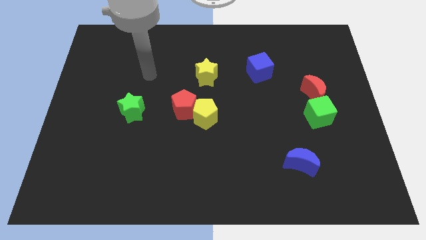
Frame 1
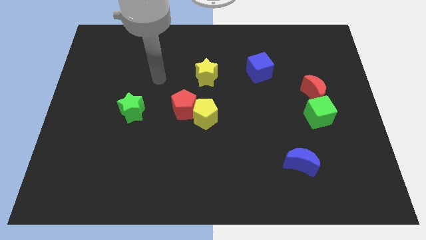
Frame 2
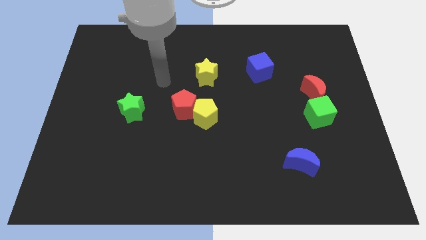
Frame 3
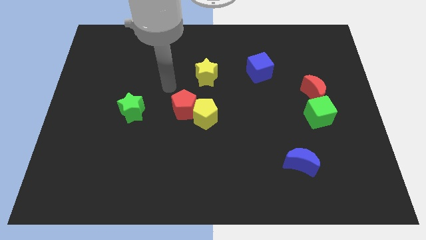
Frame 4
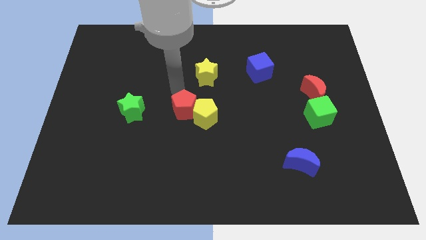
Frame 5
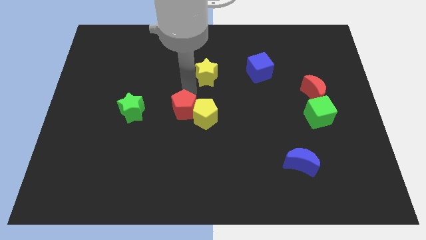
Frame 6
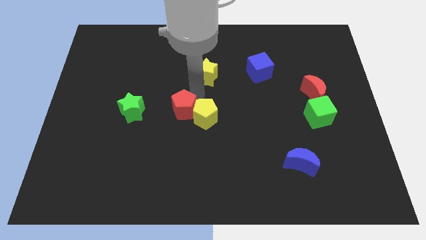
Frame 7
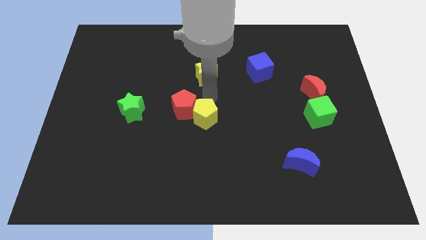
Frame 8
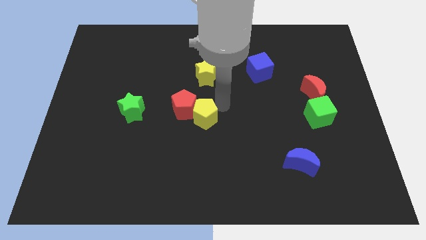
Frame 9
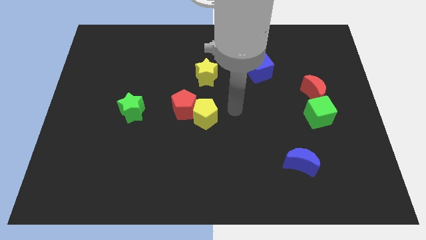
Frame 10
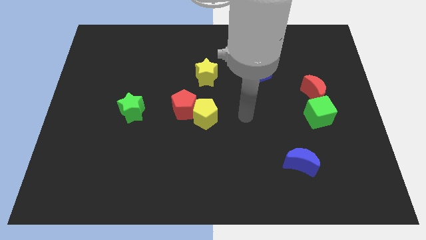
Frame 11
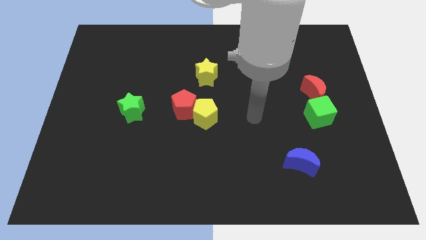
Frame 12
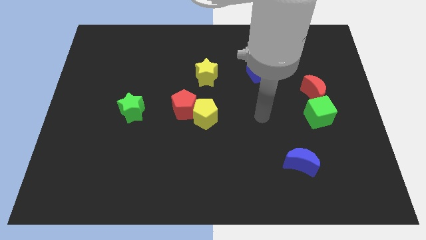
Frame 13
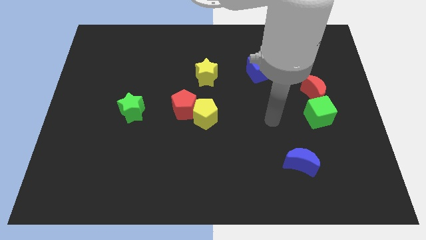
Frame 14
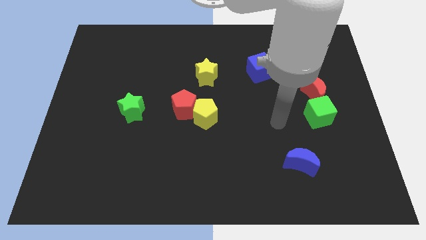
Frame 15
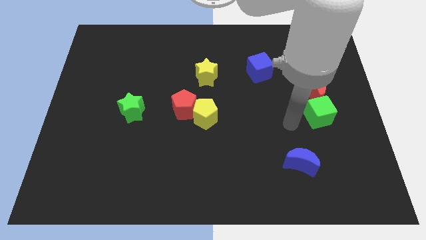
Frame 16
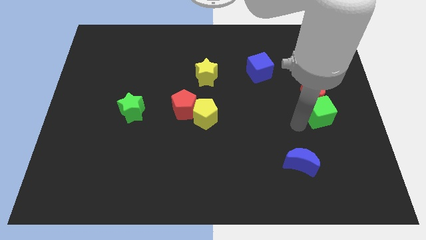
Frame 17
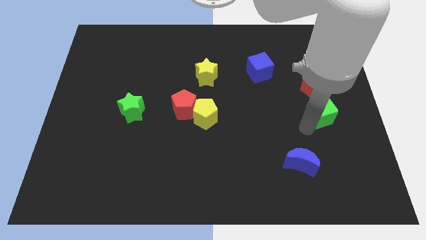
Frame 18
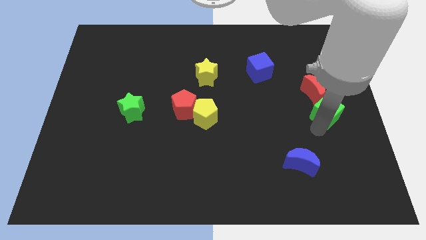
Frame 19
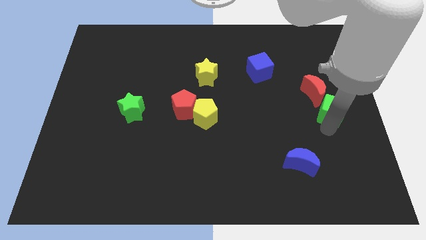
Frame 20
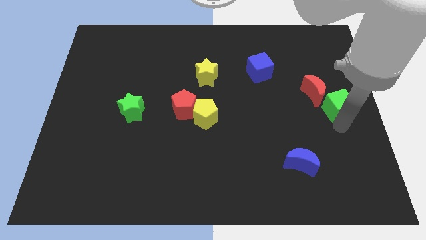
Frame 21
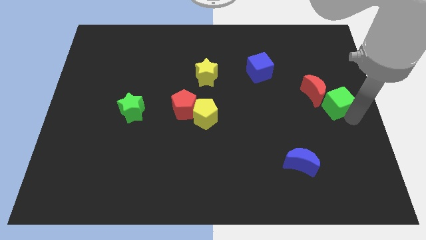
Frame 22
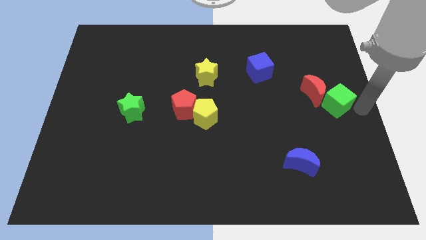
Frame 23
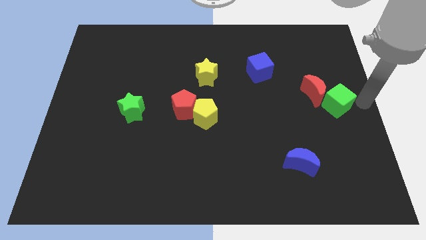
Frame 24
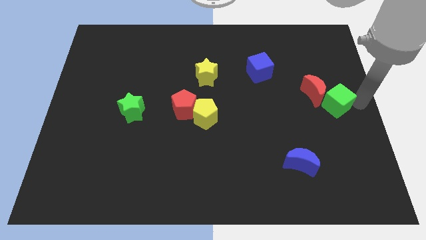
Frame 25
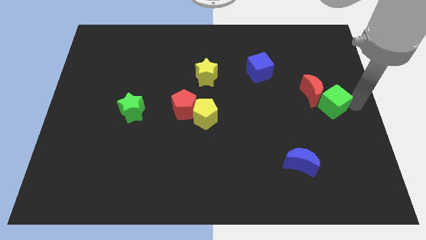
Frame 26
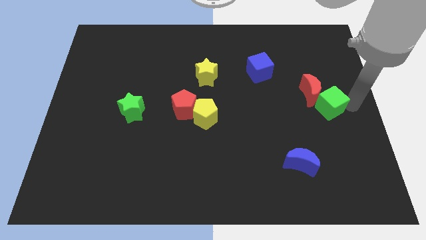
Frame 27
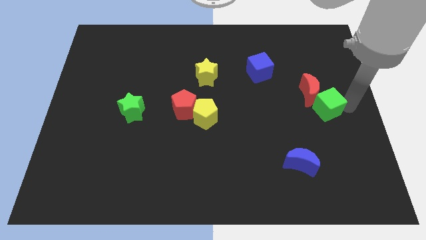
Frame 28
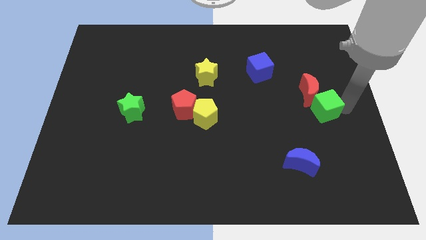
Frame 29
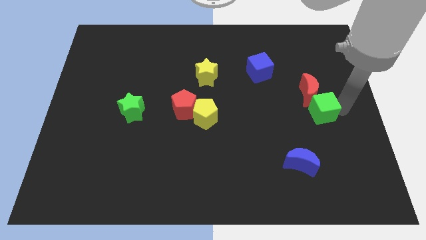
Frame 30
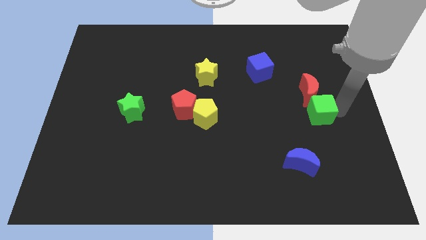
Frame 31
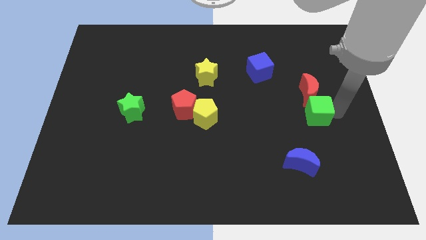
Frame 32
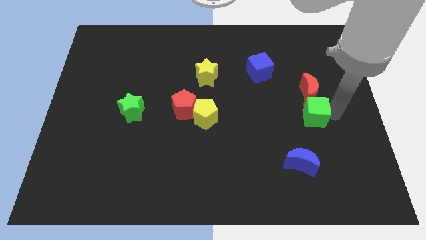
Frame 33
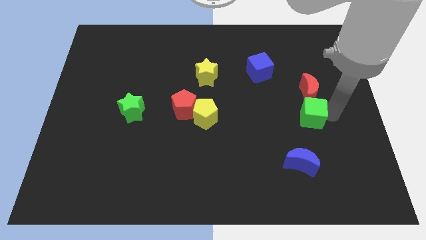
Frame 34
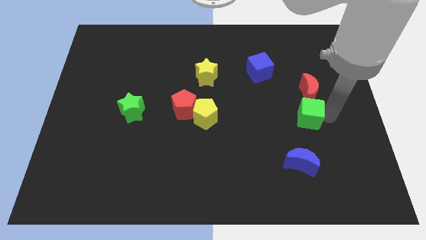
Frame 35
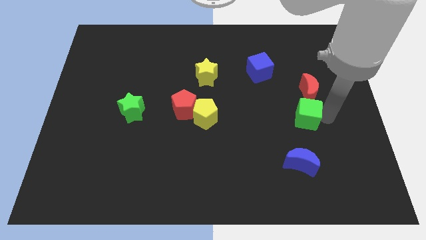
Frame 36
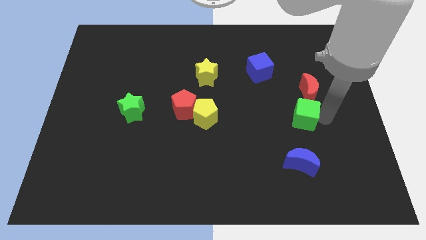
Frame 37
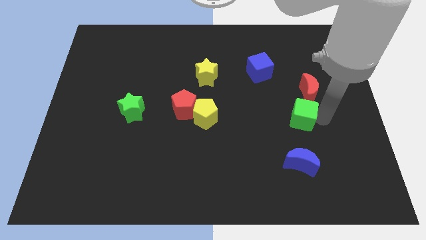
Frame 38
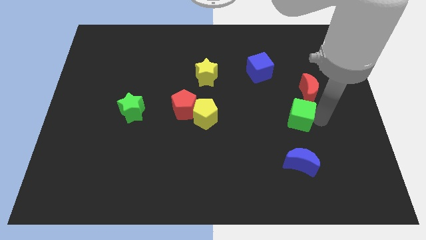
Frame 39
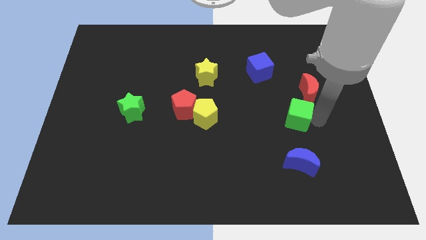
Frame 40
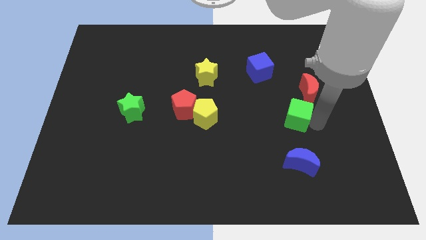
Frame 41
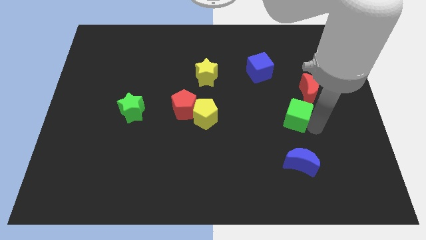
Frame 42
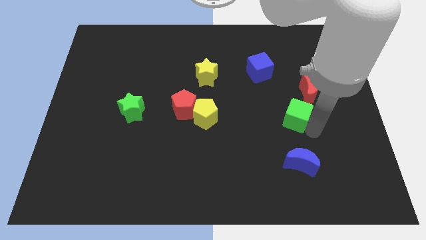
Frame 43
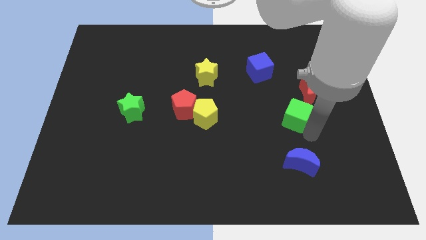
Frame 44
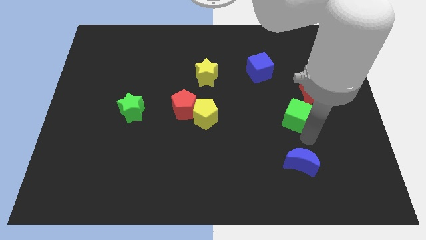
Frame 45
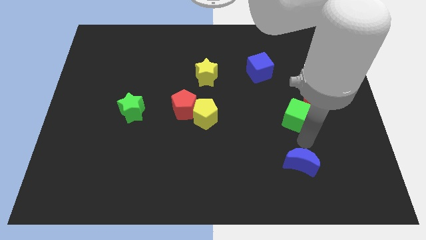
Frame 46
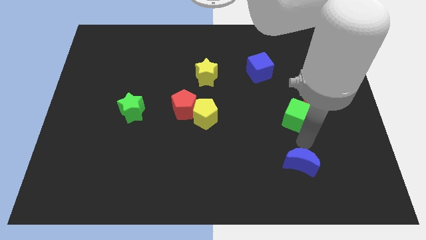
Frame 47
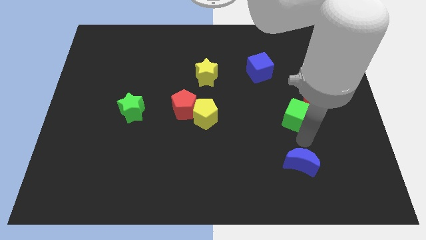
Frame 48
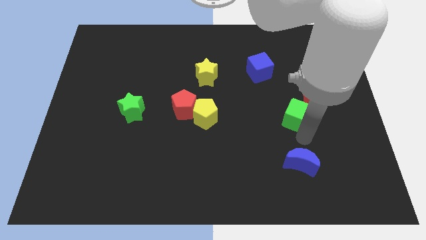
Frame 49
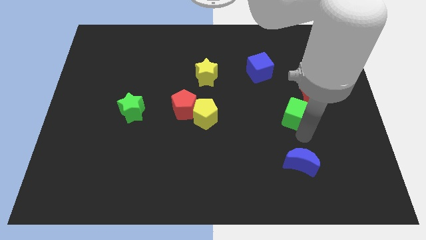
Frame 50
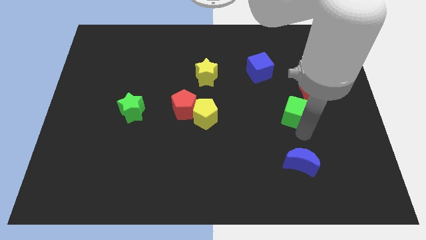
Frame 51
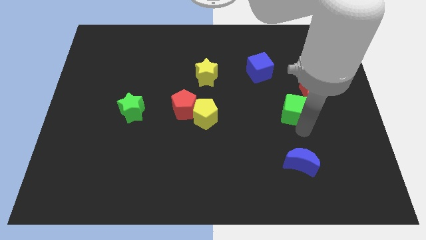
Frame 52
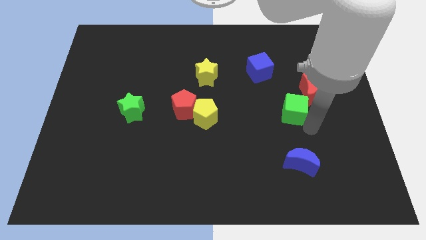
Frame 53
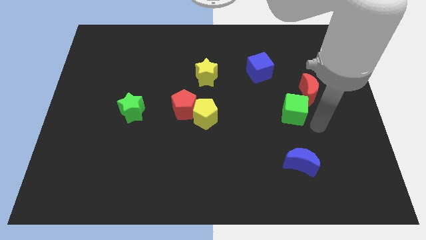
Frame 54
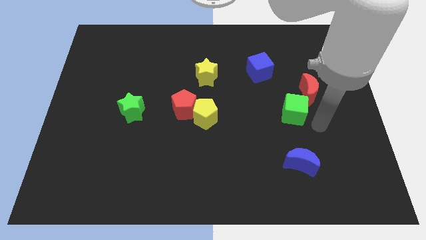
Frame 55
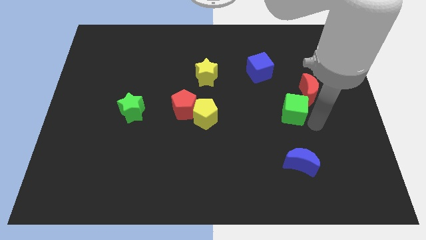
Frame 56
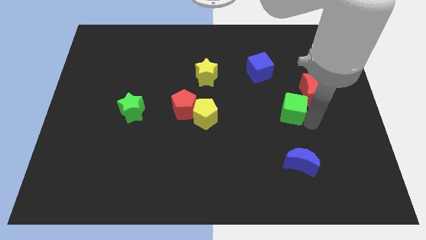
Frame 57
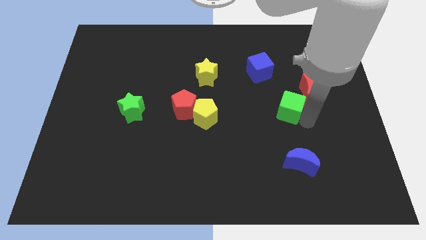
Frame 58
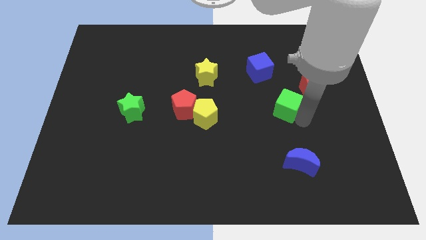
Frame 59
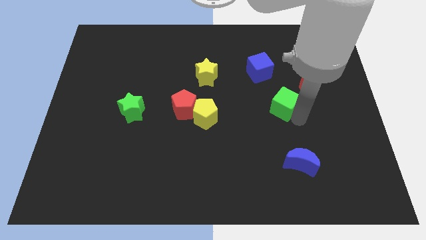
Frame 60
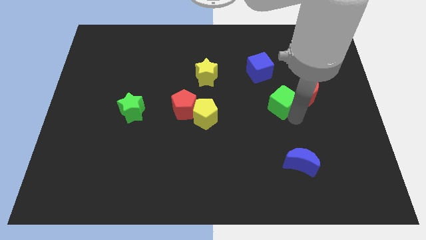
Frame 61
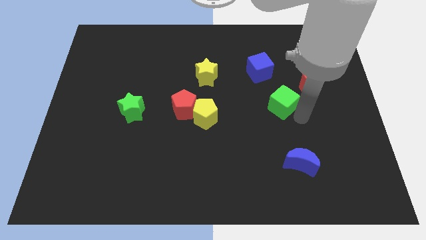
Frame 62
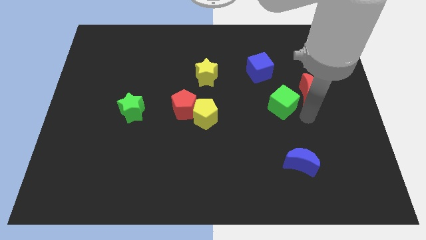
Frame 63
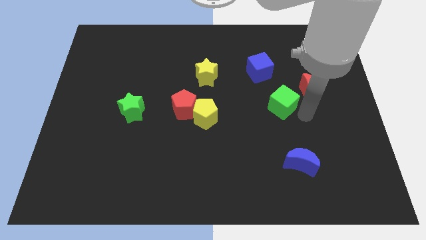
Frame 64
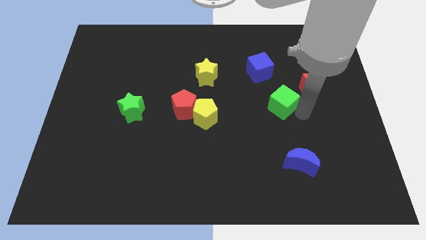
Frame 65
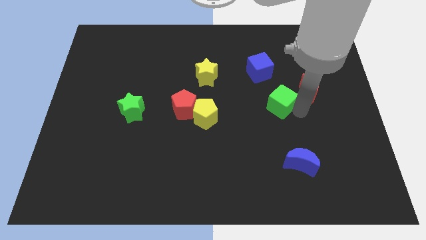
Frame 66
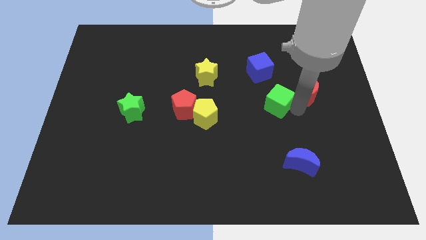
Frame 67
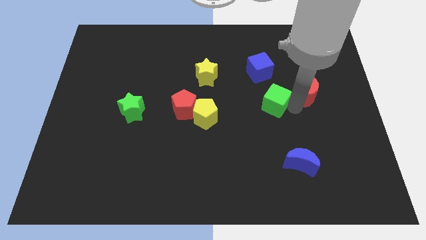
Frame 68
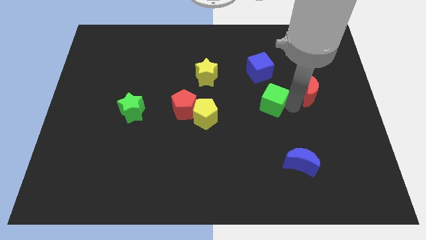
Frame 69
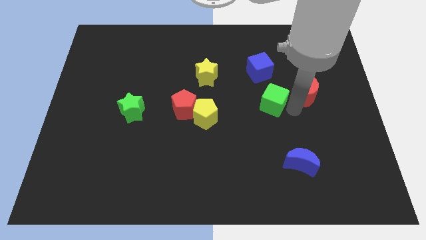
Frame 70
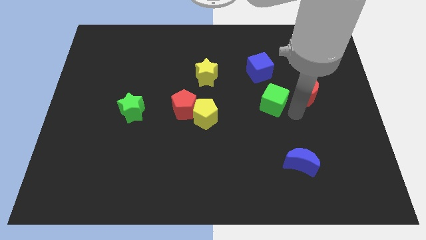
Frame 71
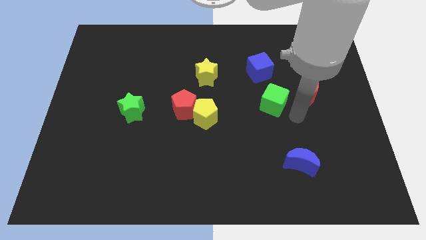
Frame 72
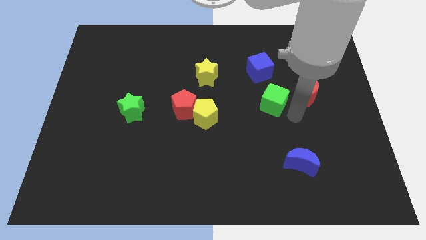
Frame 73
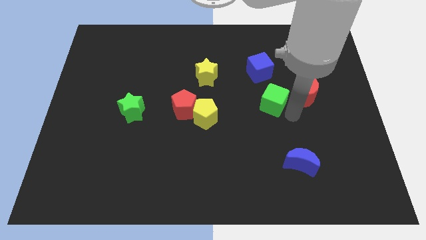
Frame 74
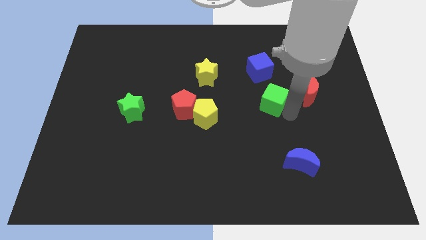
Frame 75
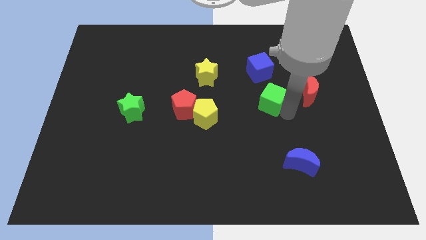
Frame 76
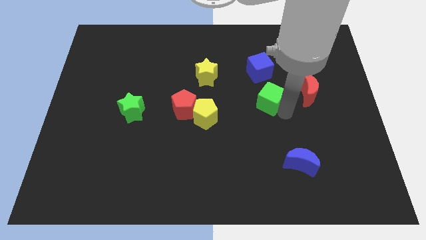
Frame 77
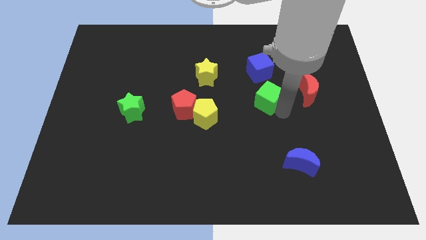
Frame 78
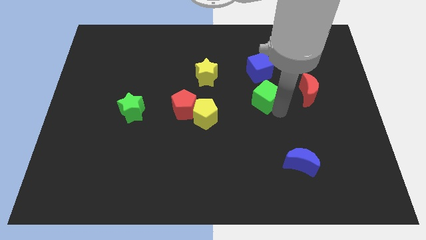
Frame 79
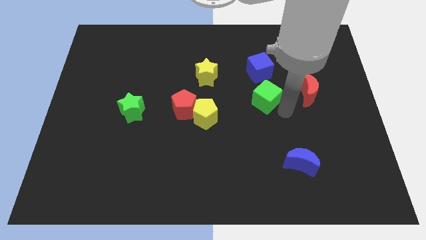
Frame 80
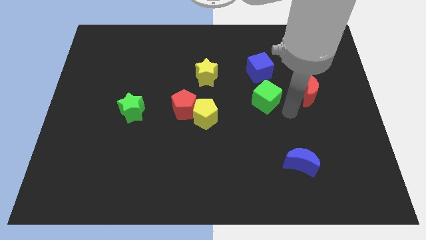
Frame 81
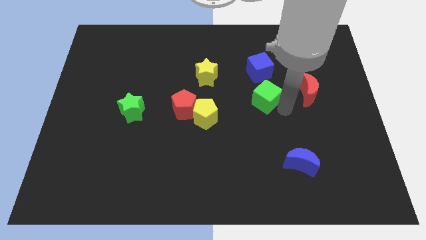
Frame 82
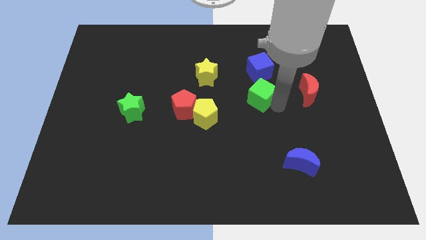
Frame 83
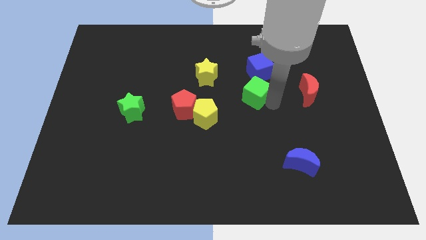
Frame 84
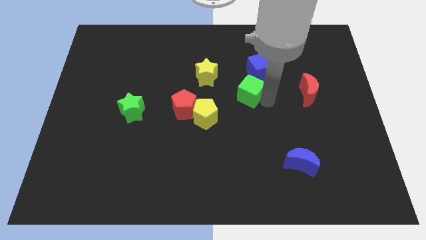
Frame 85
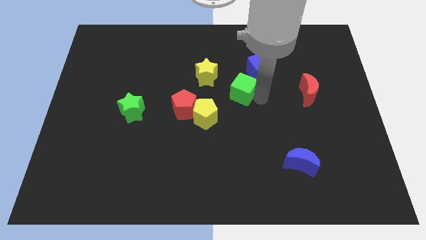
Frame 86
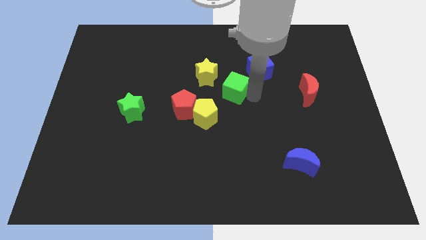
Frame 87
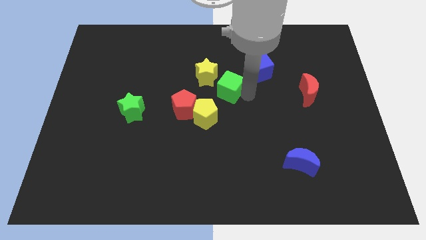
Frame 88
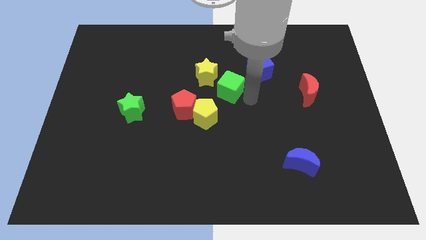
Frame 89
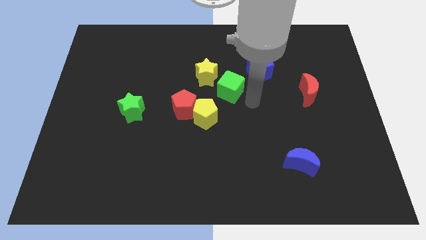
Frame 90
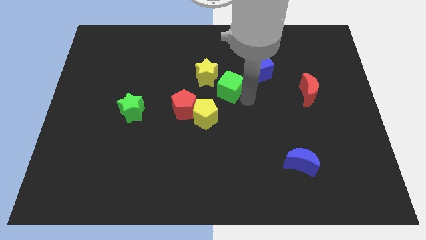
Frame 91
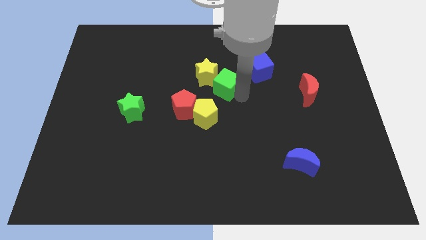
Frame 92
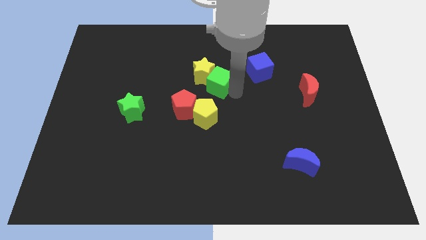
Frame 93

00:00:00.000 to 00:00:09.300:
move the green cube towards the yellow star
